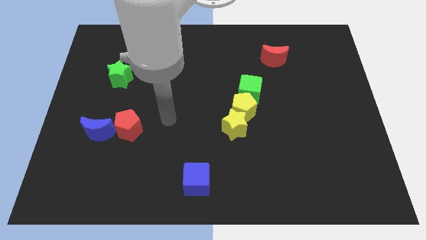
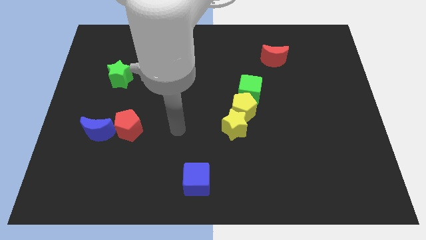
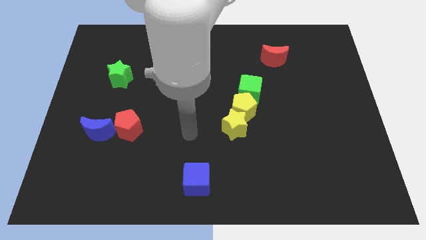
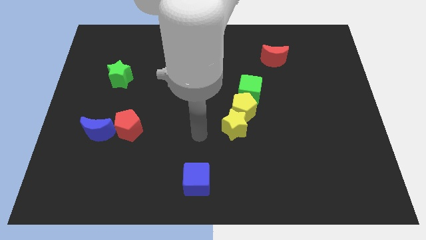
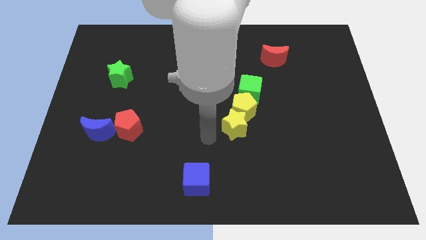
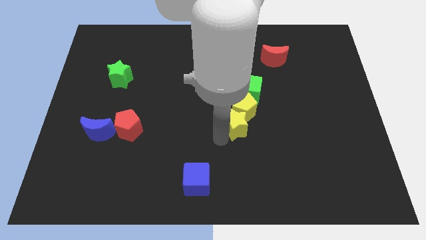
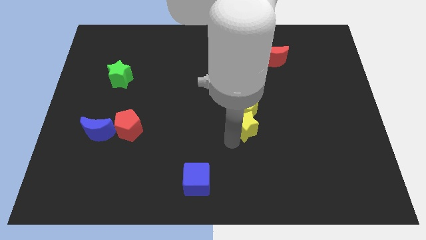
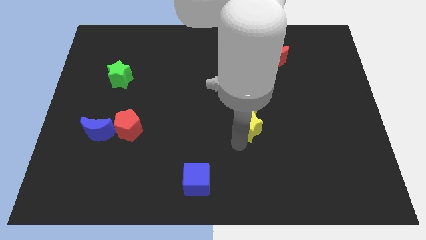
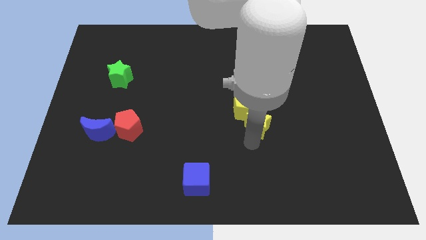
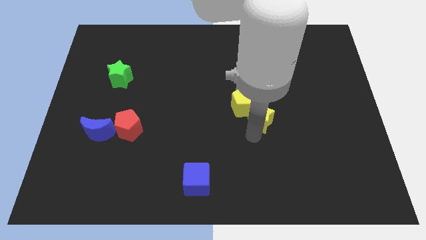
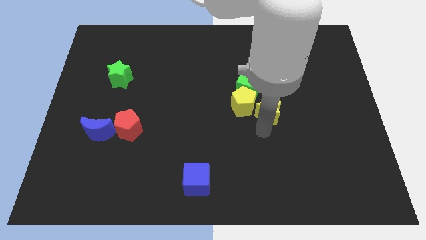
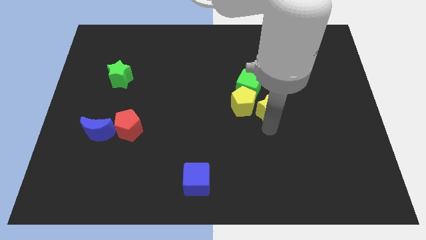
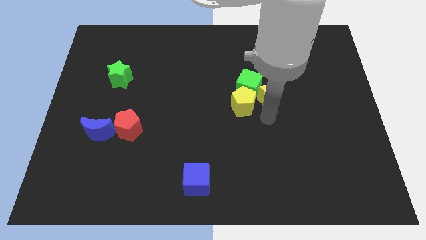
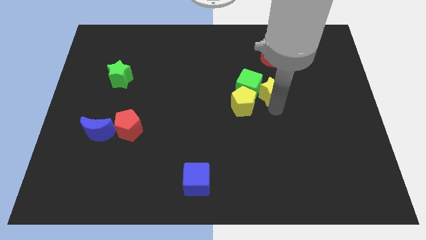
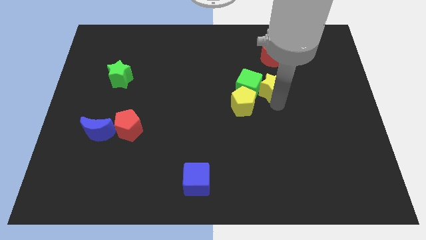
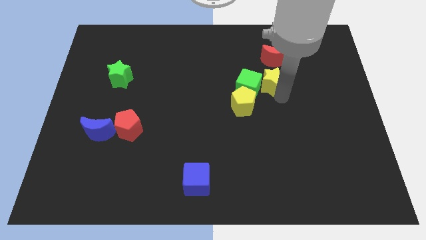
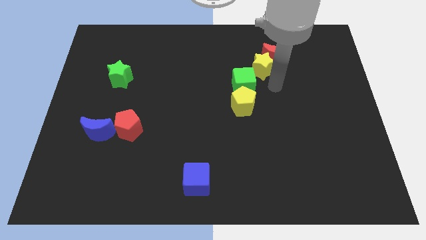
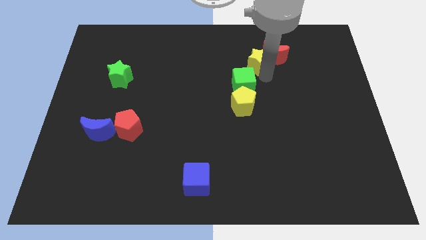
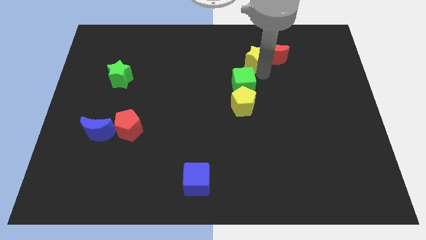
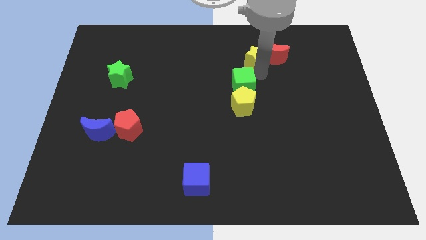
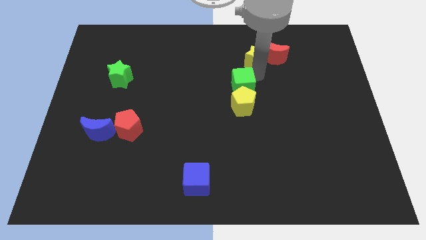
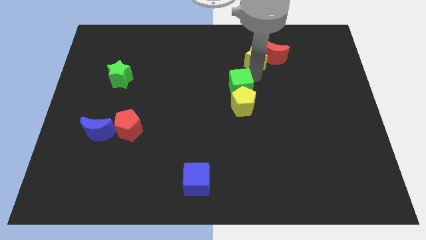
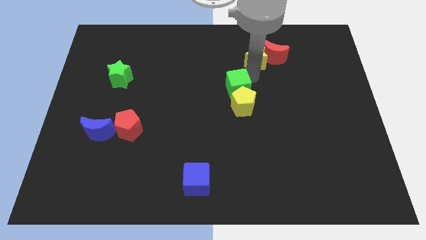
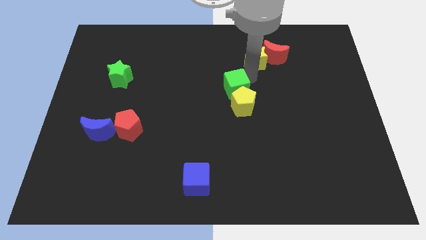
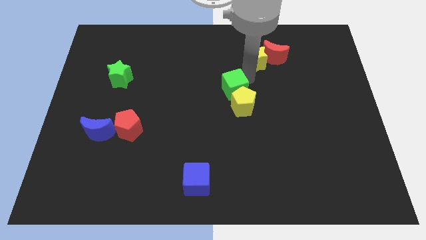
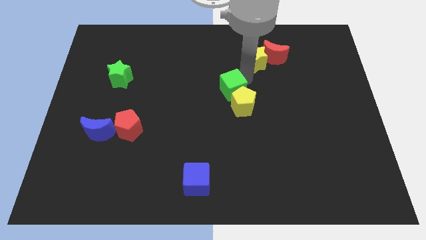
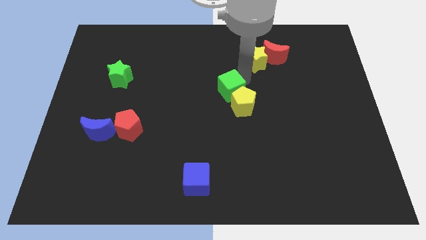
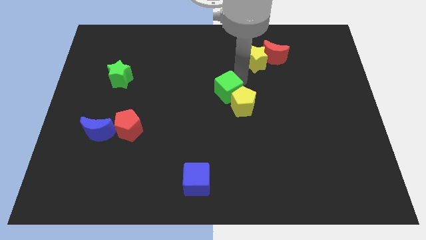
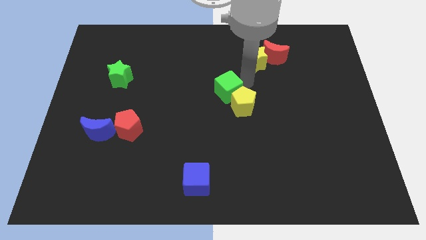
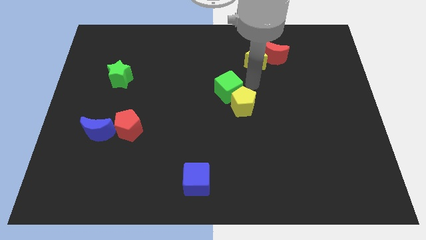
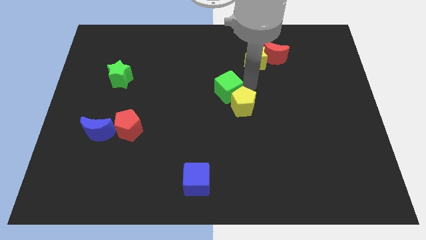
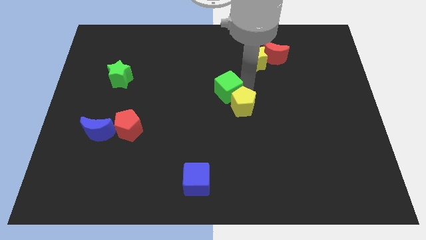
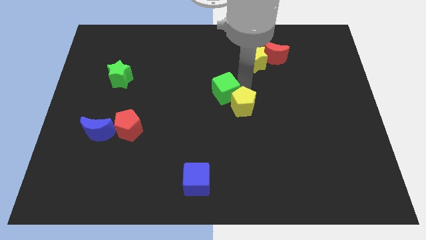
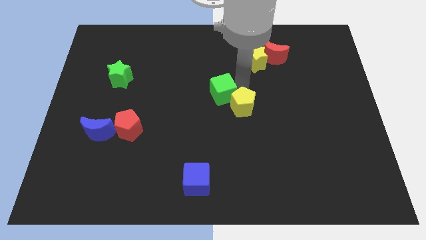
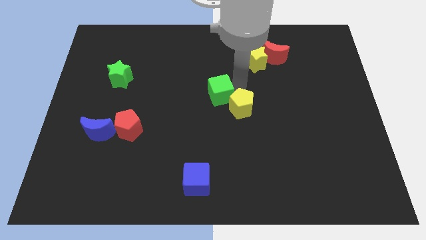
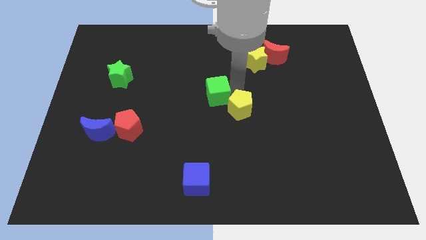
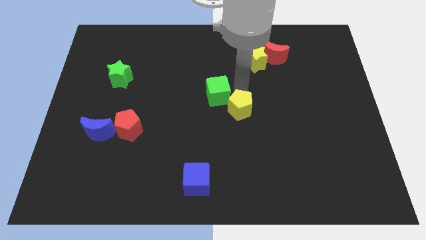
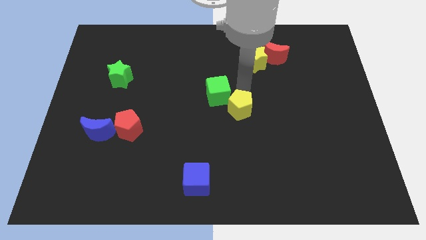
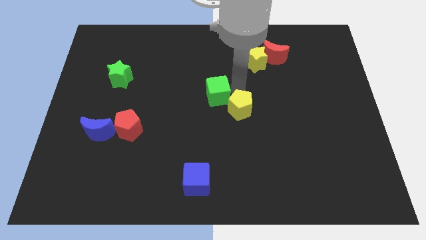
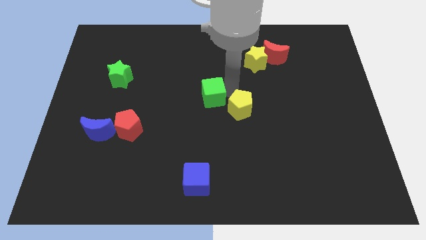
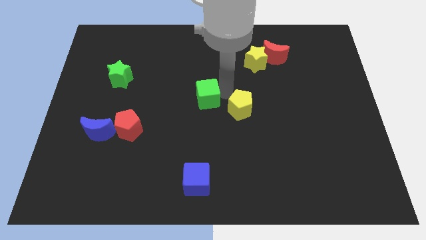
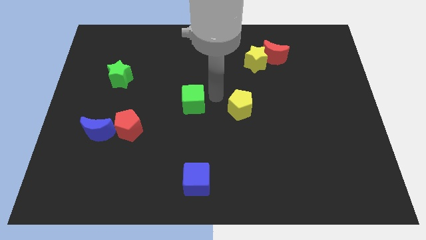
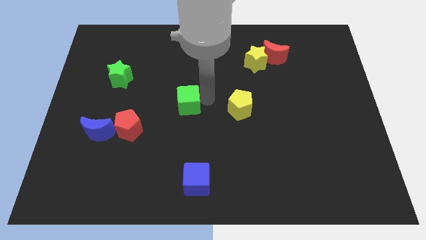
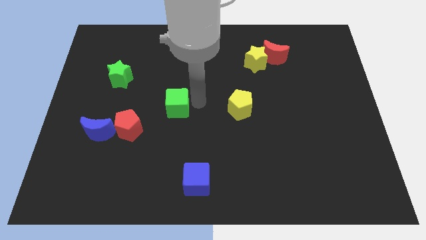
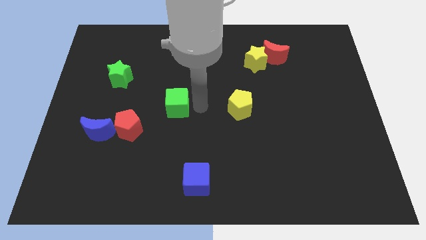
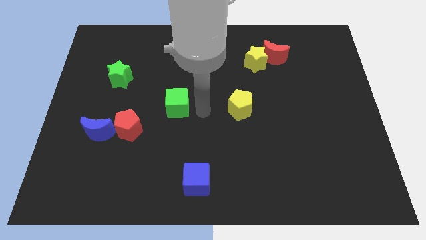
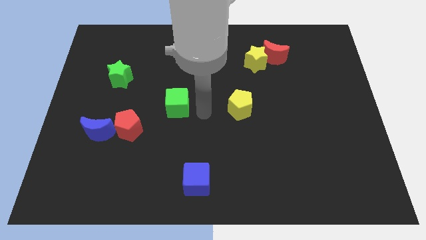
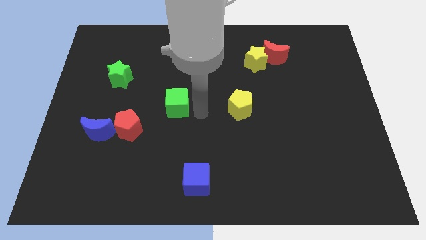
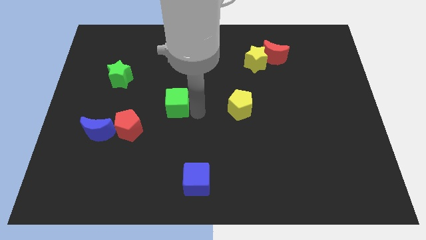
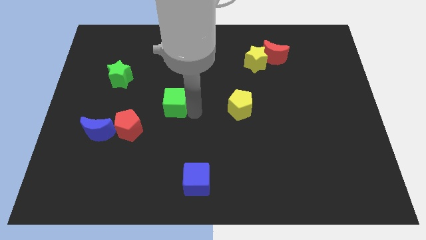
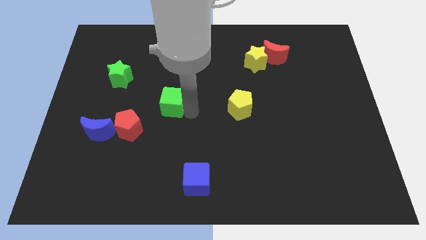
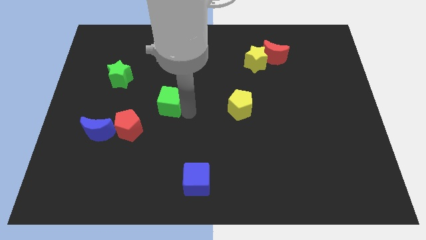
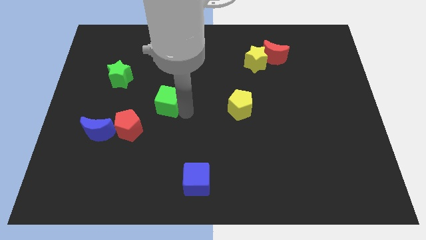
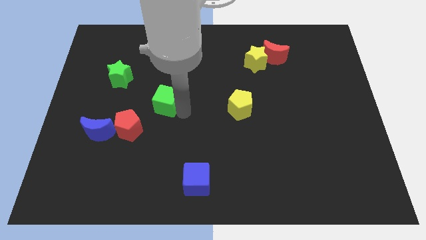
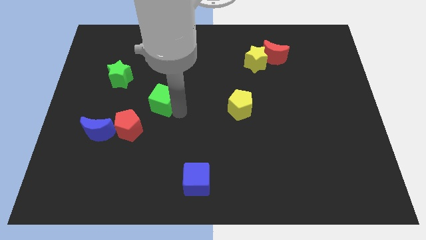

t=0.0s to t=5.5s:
slide the green cube left

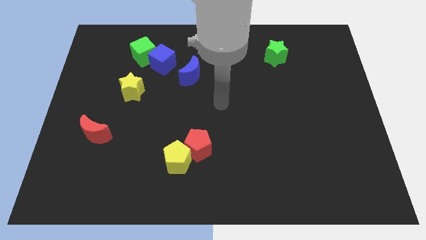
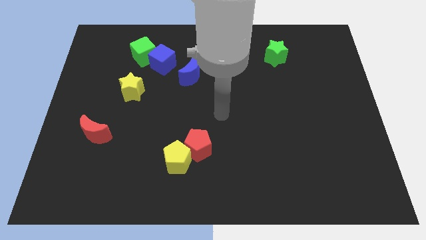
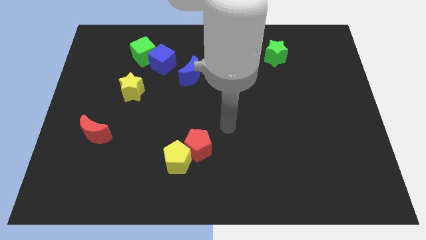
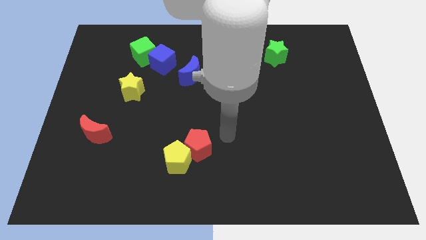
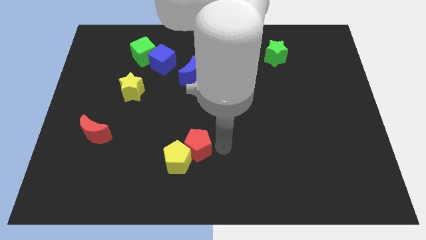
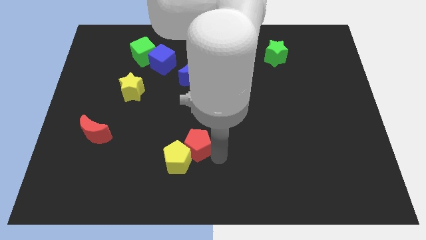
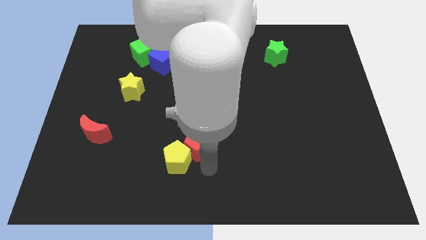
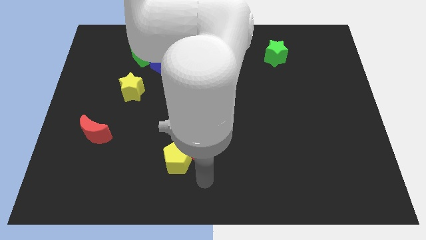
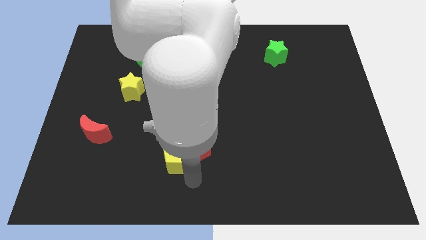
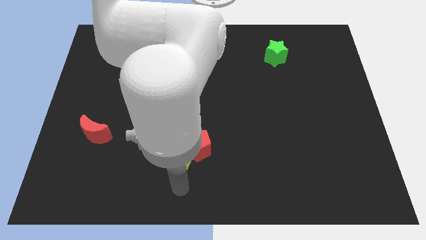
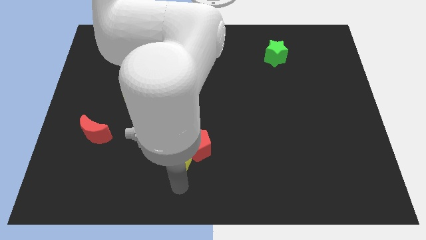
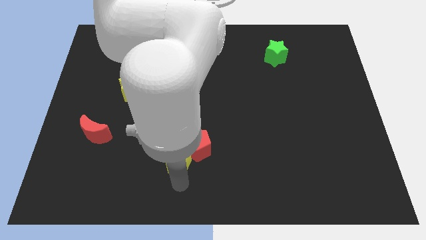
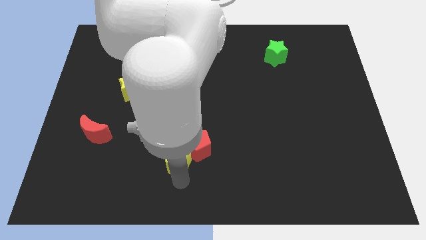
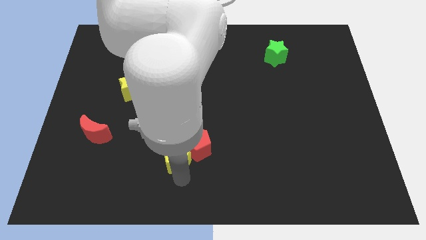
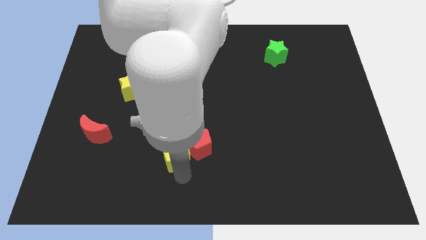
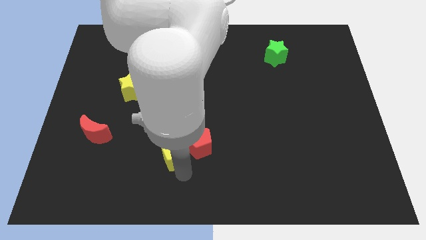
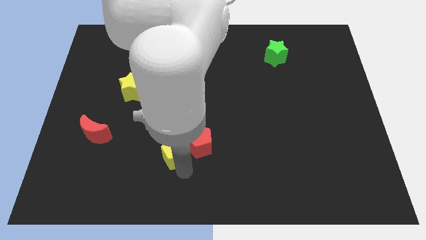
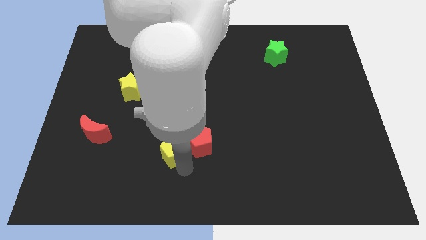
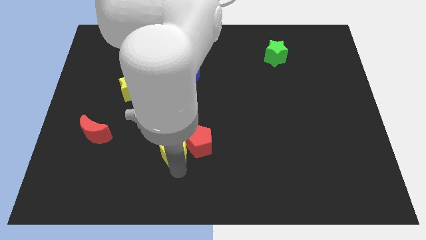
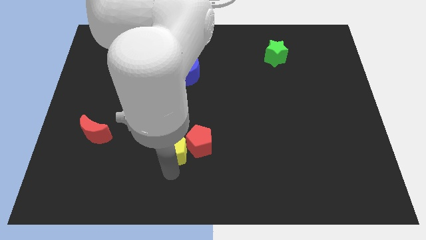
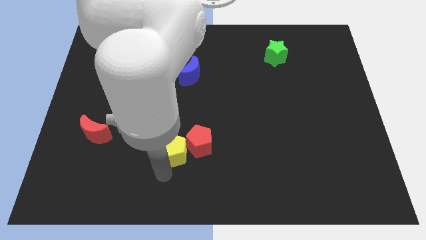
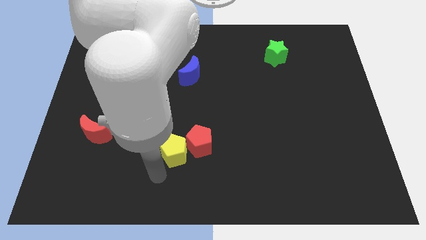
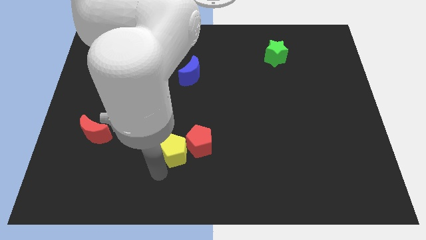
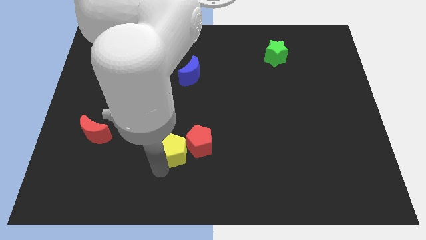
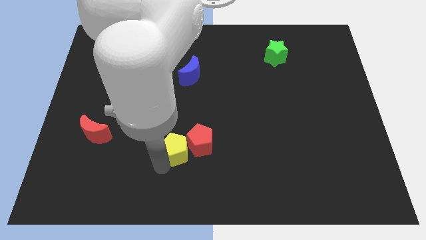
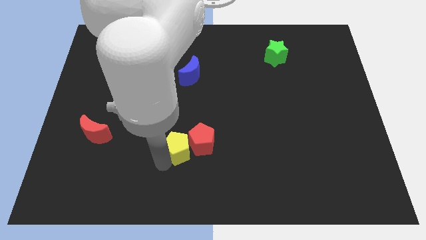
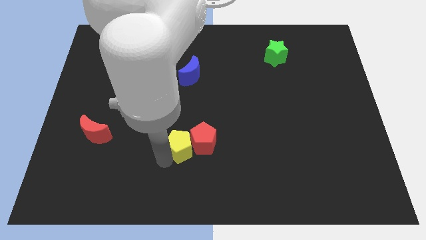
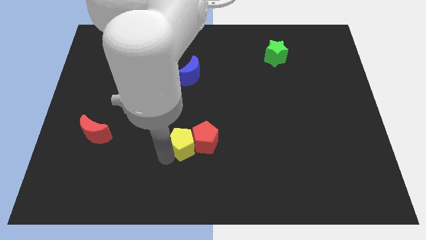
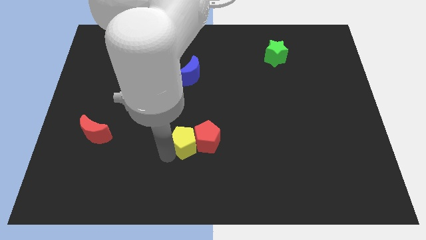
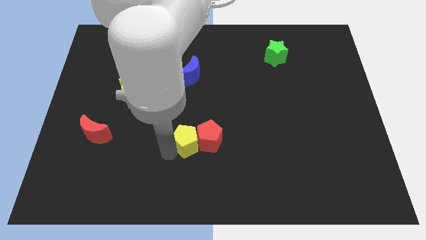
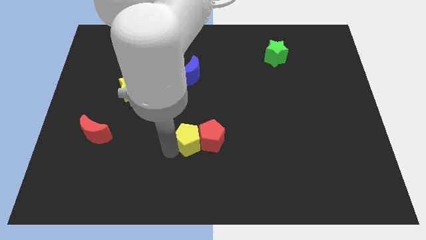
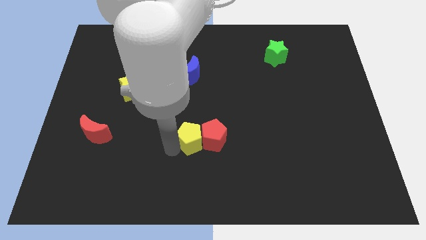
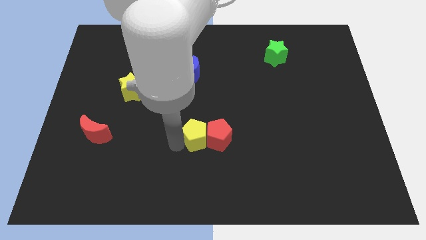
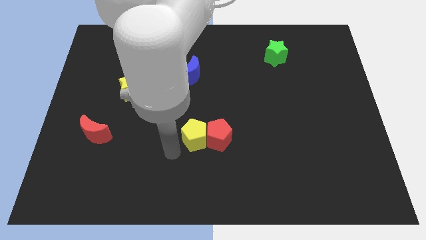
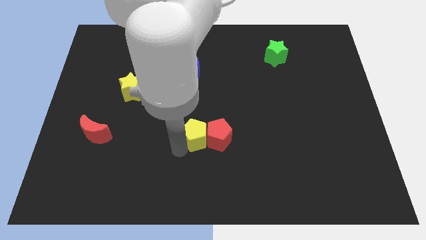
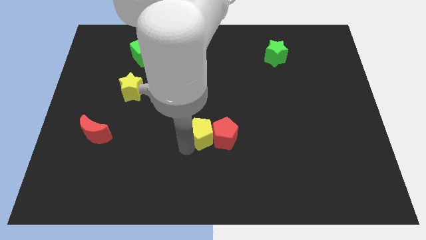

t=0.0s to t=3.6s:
slide the yellow pentagon diagonally upwards and to the right slightly
